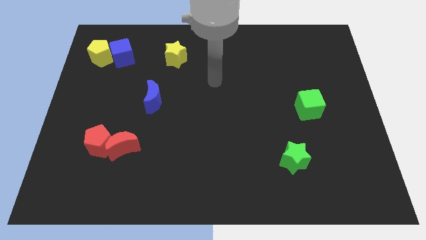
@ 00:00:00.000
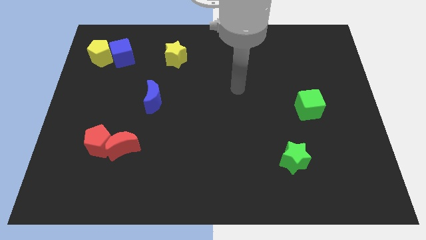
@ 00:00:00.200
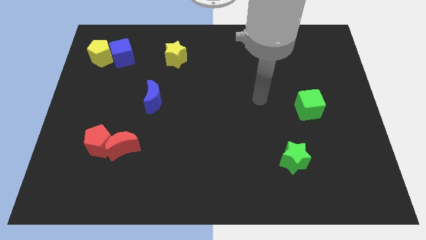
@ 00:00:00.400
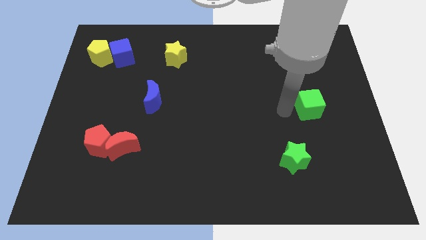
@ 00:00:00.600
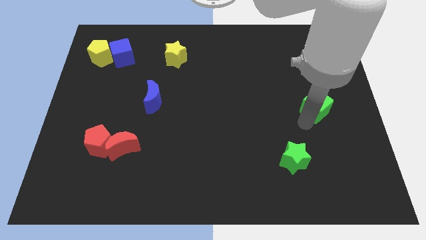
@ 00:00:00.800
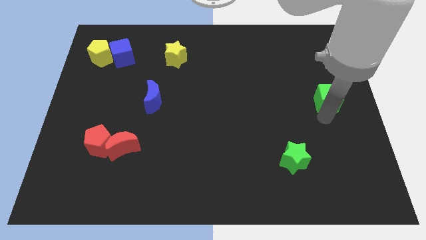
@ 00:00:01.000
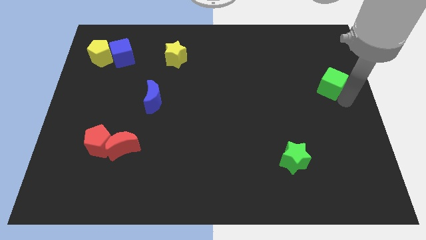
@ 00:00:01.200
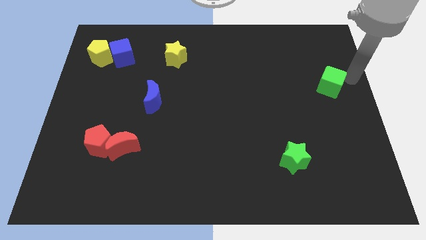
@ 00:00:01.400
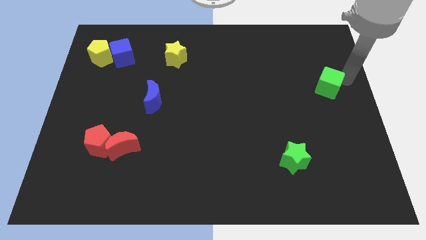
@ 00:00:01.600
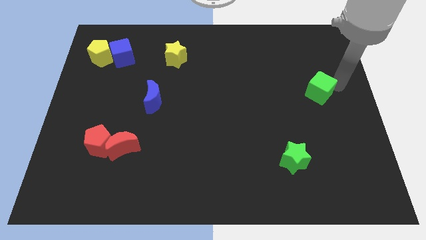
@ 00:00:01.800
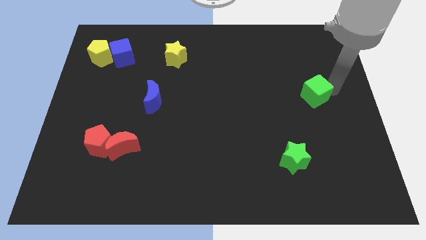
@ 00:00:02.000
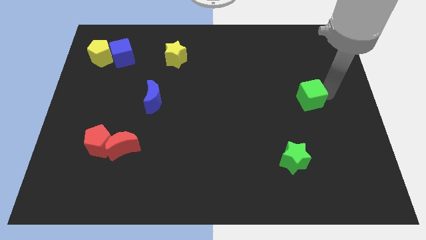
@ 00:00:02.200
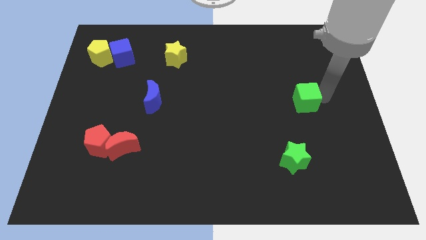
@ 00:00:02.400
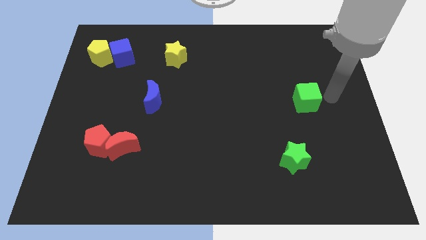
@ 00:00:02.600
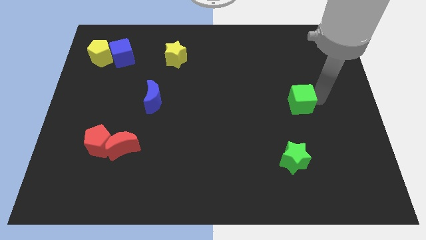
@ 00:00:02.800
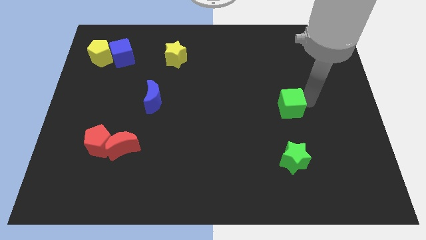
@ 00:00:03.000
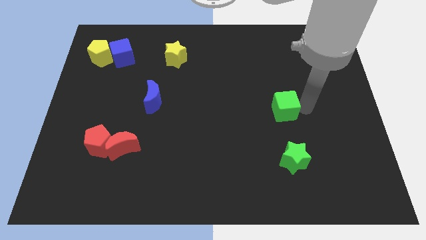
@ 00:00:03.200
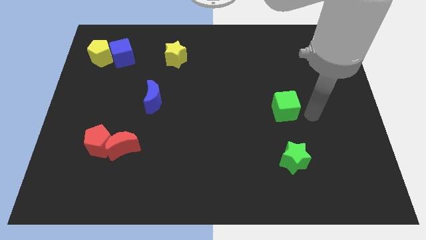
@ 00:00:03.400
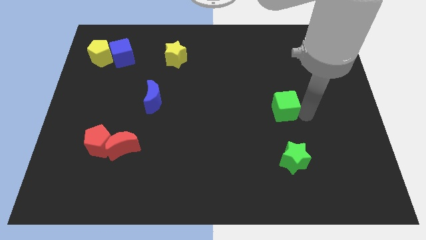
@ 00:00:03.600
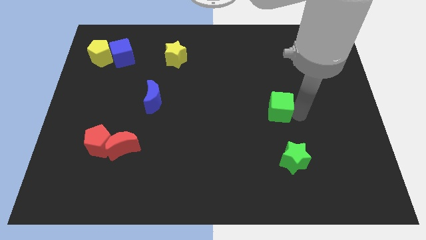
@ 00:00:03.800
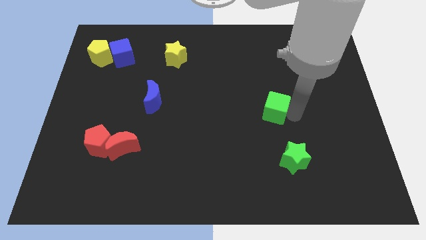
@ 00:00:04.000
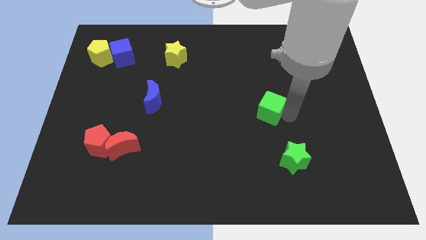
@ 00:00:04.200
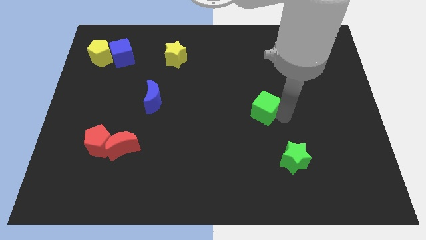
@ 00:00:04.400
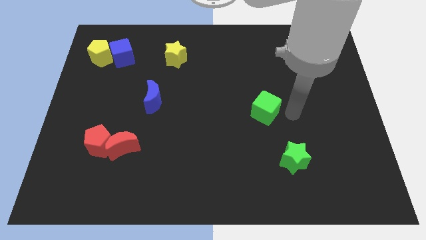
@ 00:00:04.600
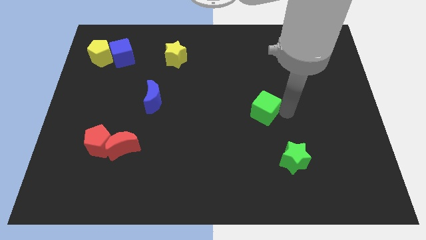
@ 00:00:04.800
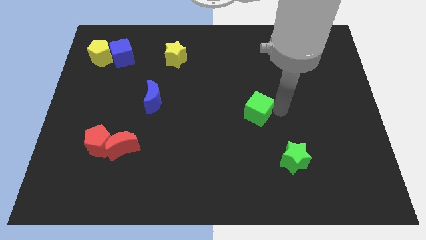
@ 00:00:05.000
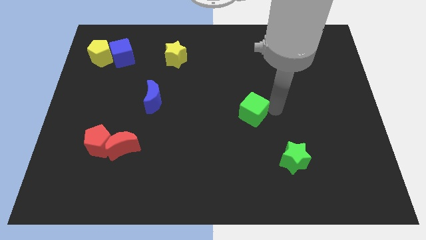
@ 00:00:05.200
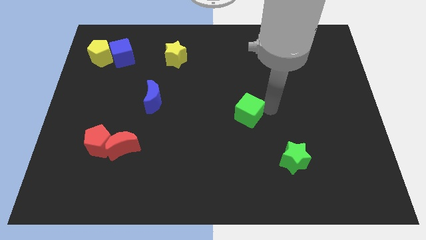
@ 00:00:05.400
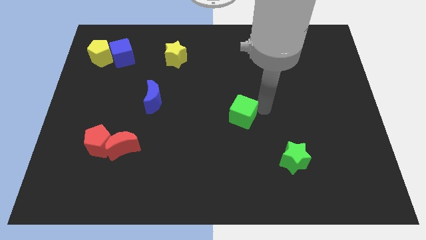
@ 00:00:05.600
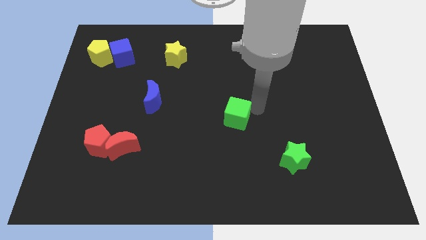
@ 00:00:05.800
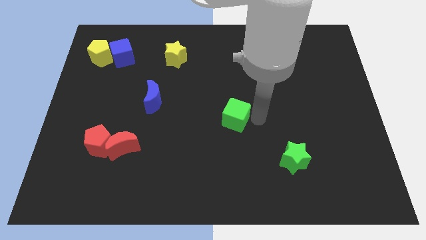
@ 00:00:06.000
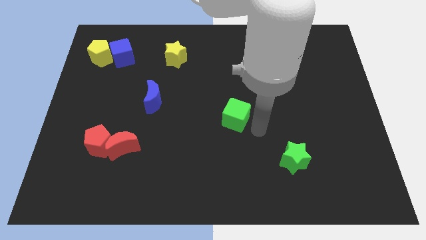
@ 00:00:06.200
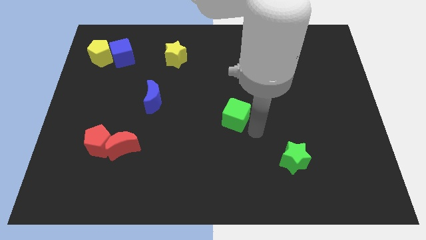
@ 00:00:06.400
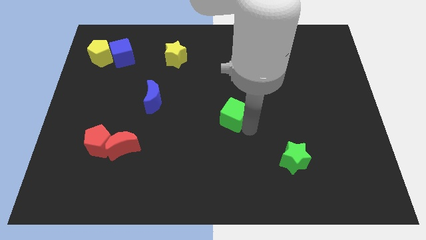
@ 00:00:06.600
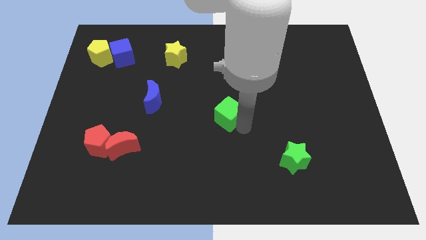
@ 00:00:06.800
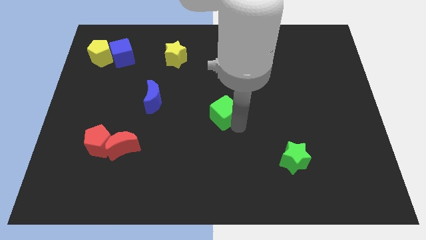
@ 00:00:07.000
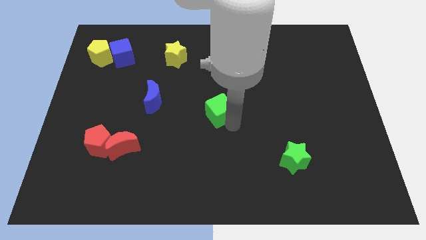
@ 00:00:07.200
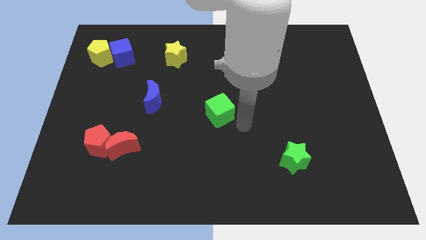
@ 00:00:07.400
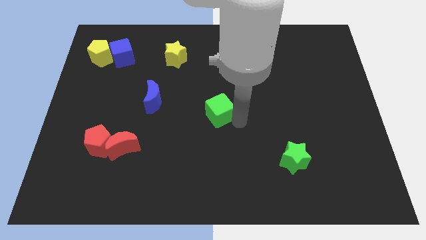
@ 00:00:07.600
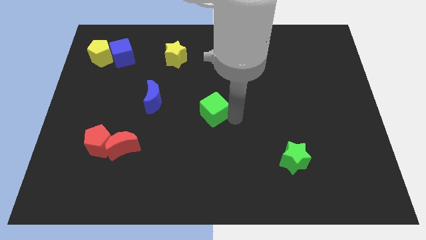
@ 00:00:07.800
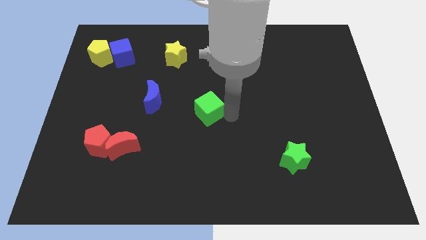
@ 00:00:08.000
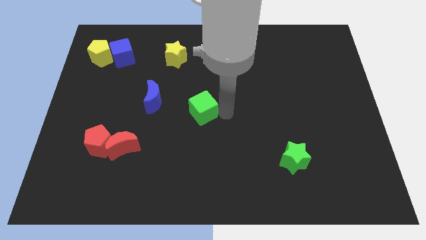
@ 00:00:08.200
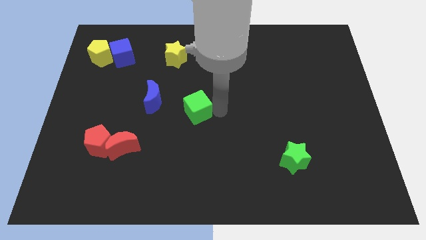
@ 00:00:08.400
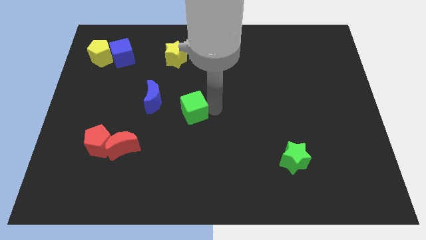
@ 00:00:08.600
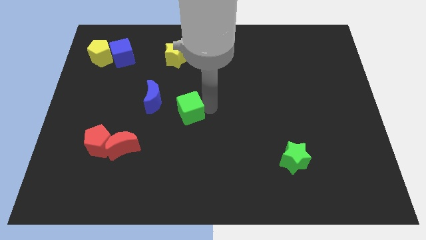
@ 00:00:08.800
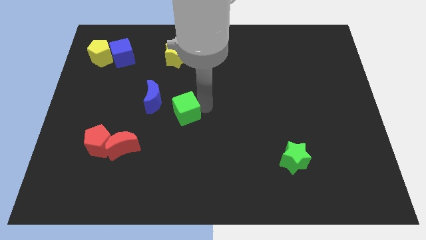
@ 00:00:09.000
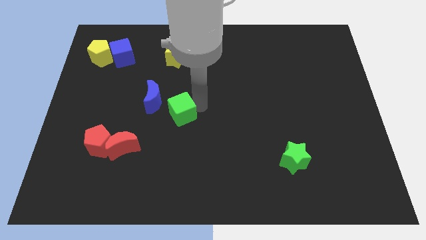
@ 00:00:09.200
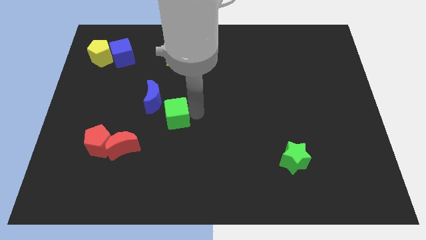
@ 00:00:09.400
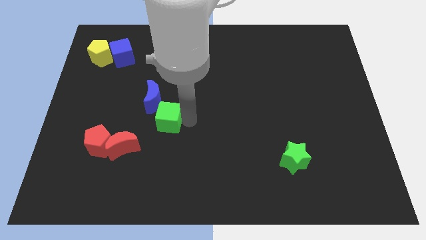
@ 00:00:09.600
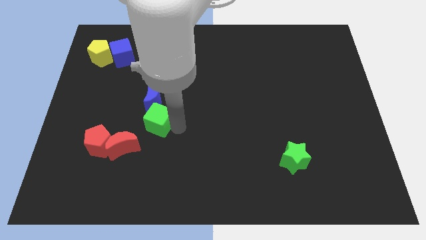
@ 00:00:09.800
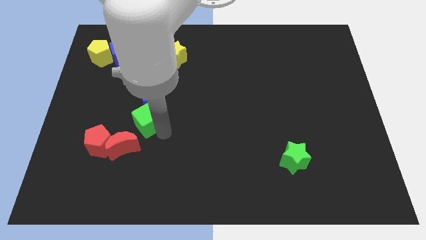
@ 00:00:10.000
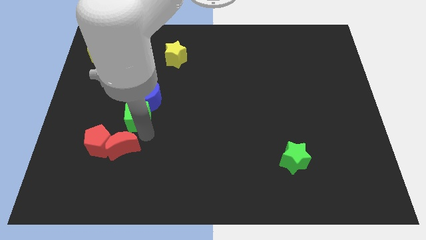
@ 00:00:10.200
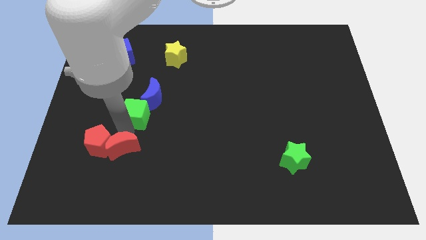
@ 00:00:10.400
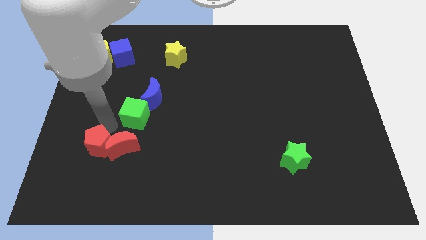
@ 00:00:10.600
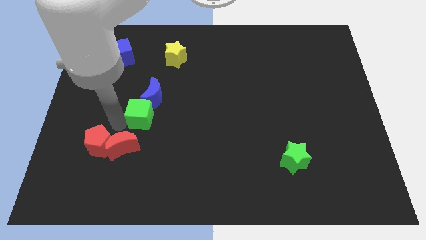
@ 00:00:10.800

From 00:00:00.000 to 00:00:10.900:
slide the green cube next to the blue moon

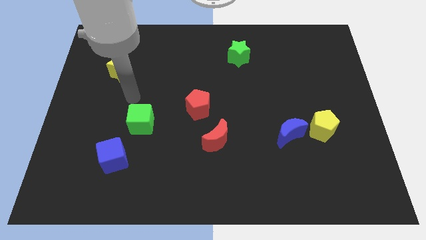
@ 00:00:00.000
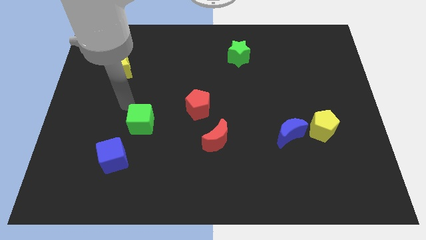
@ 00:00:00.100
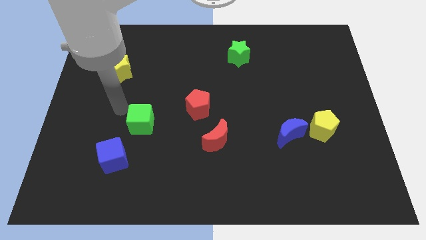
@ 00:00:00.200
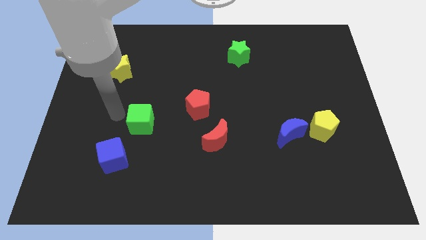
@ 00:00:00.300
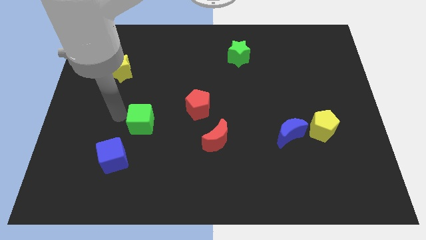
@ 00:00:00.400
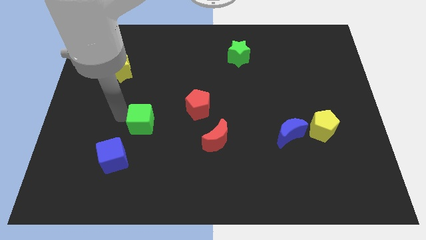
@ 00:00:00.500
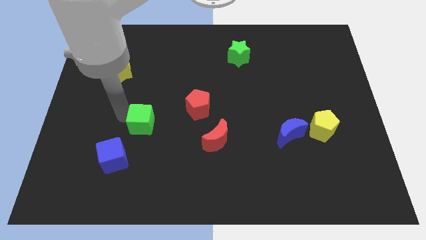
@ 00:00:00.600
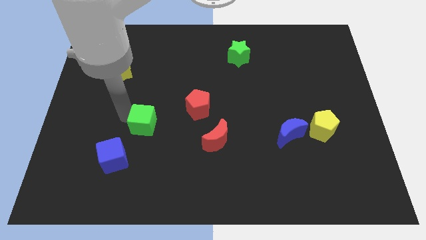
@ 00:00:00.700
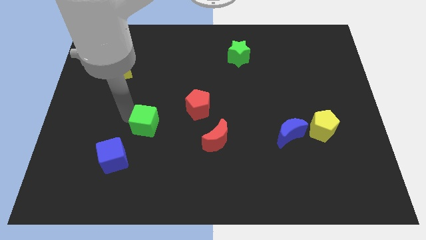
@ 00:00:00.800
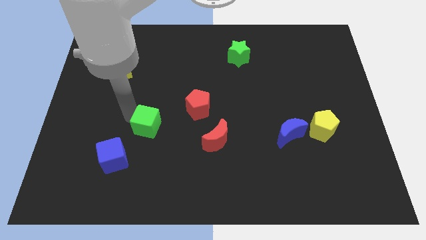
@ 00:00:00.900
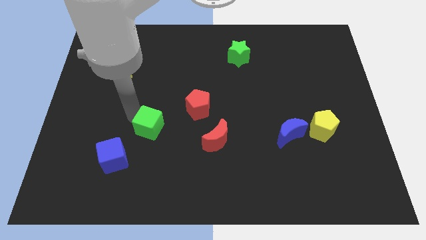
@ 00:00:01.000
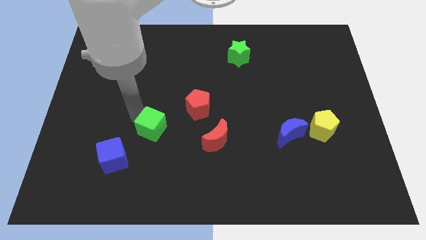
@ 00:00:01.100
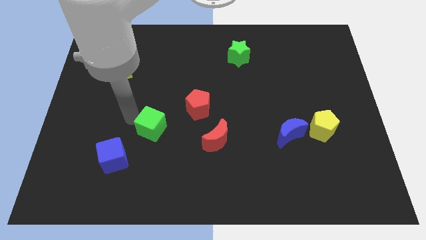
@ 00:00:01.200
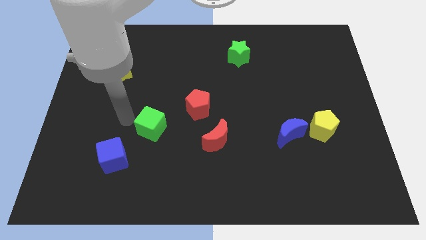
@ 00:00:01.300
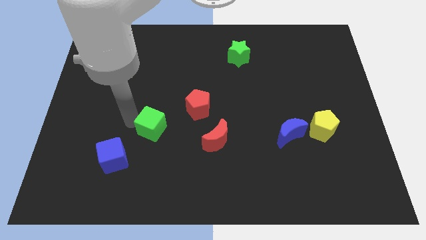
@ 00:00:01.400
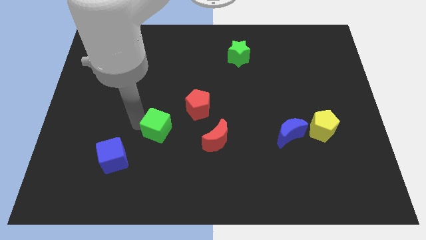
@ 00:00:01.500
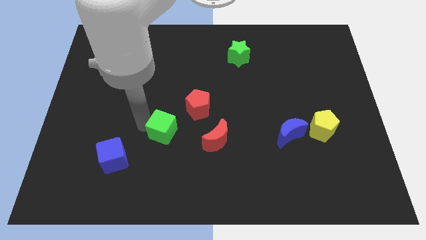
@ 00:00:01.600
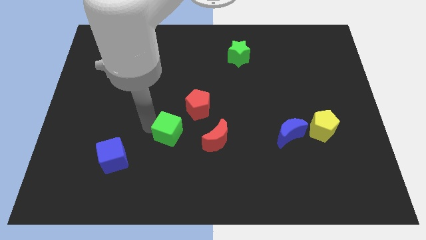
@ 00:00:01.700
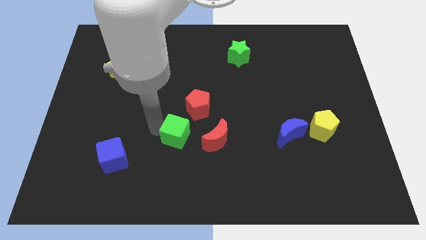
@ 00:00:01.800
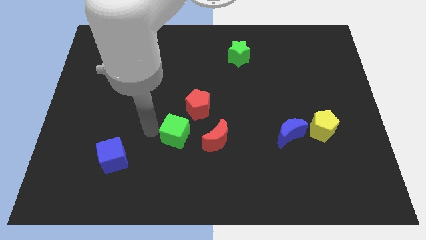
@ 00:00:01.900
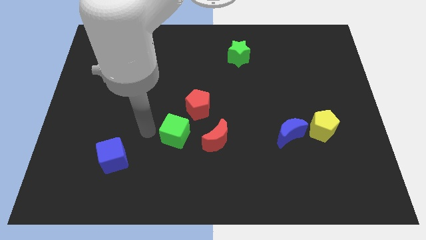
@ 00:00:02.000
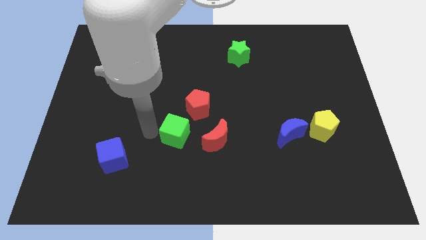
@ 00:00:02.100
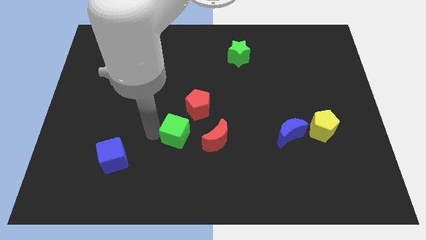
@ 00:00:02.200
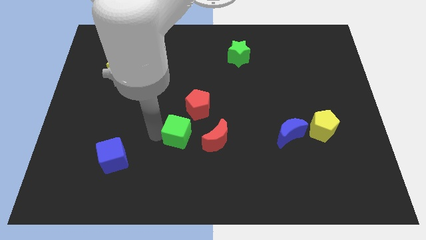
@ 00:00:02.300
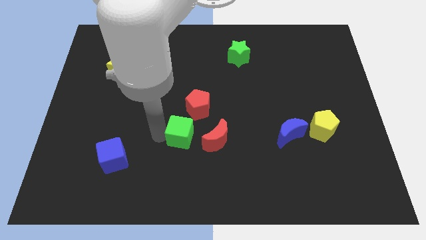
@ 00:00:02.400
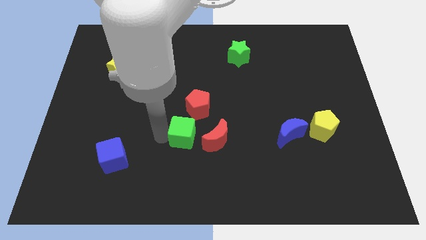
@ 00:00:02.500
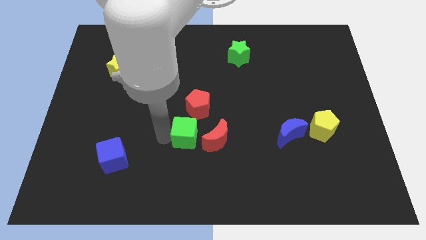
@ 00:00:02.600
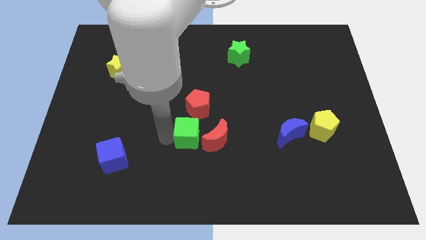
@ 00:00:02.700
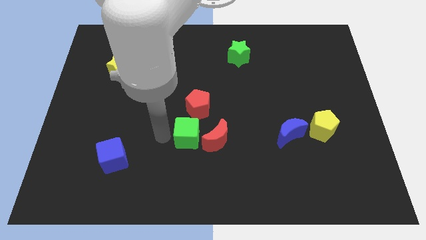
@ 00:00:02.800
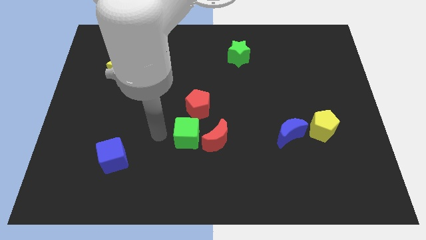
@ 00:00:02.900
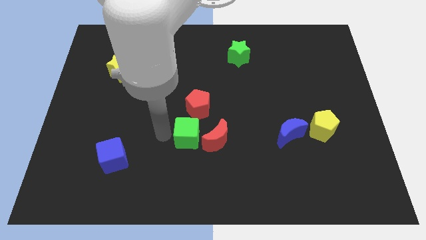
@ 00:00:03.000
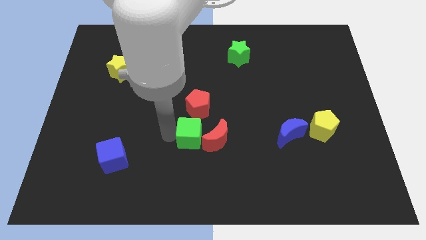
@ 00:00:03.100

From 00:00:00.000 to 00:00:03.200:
push the green cube to the red moon
